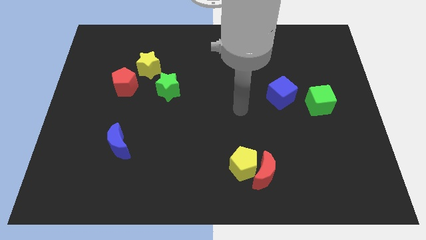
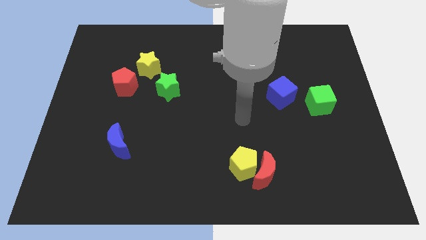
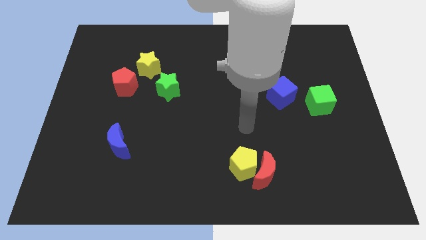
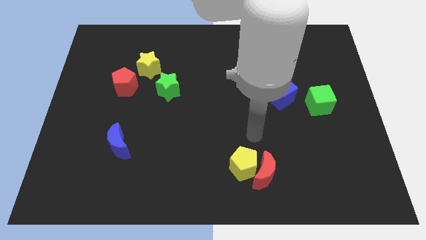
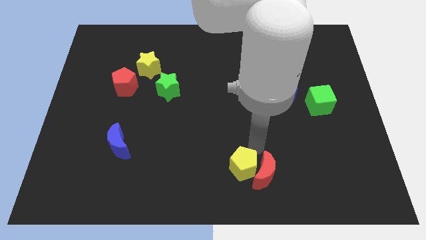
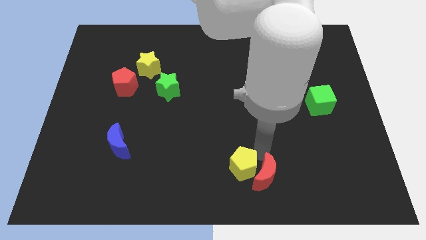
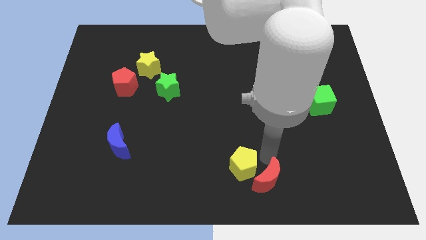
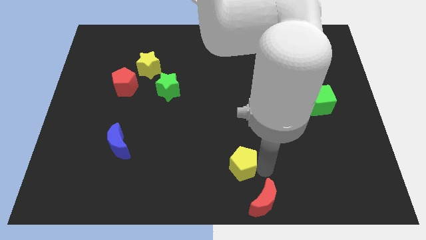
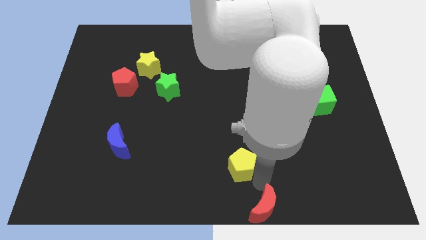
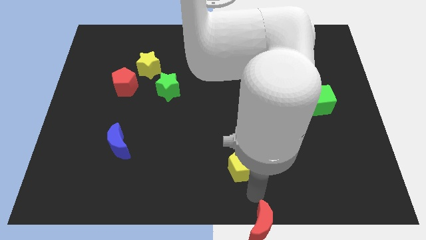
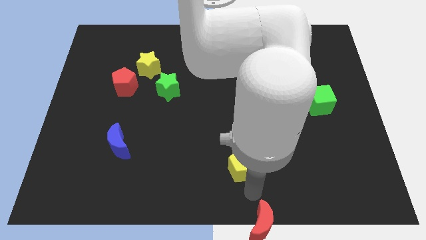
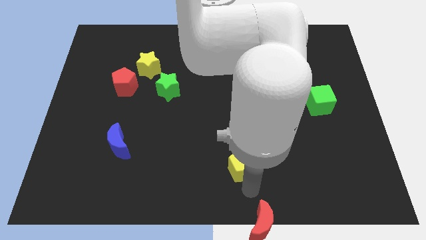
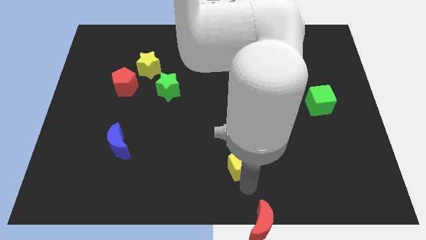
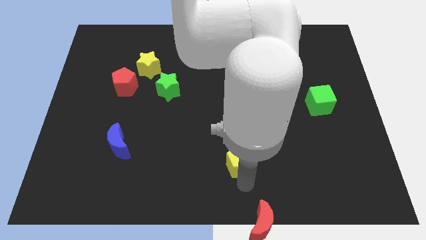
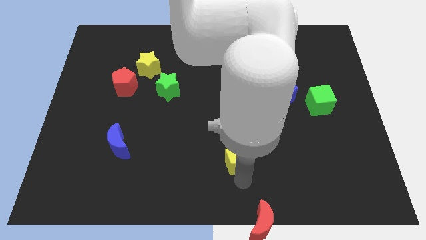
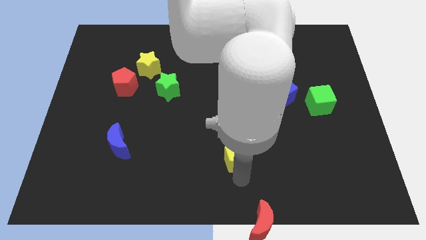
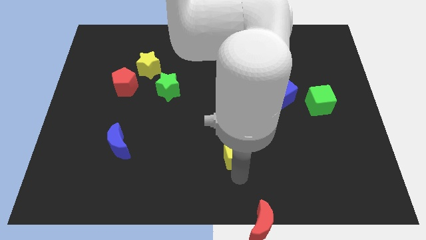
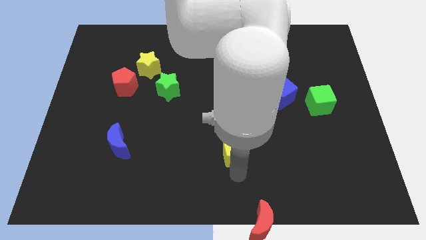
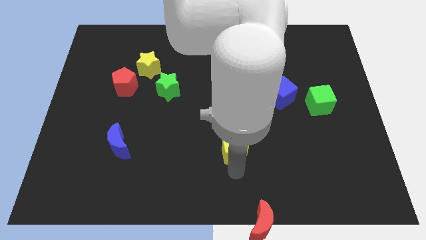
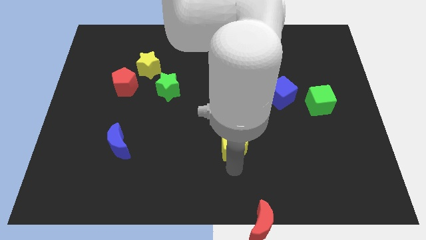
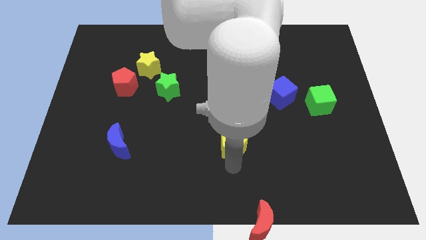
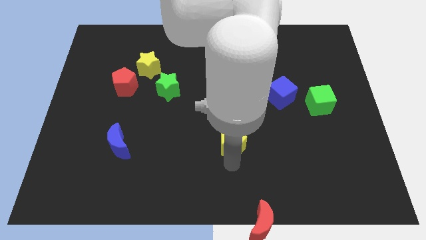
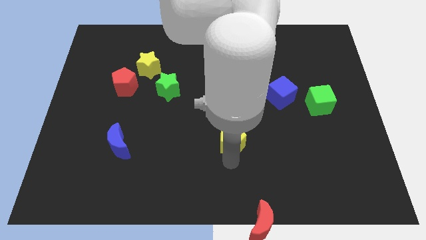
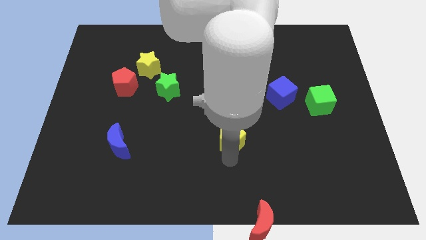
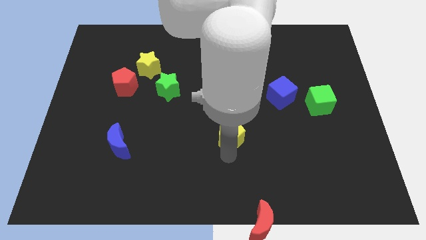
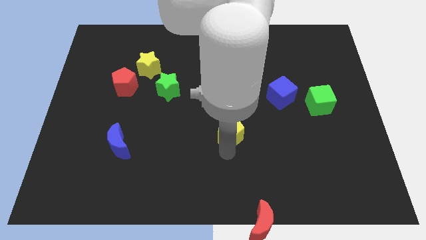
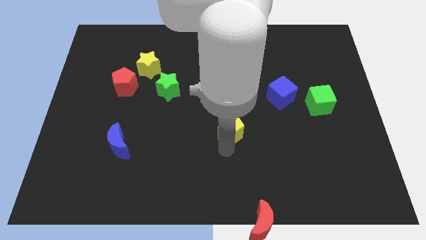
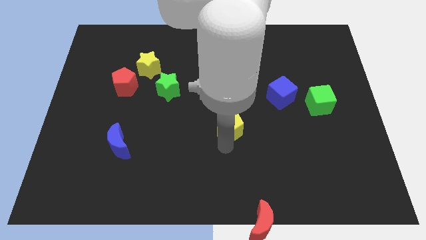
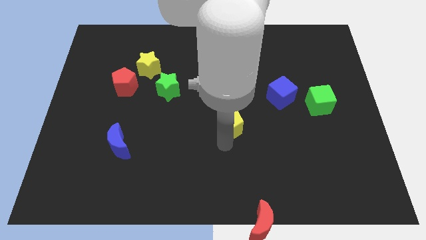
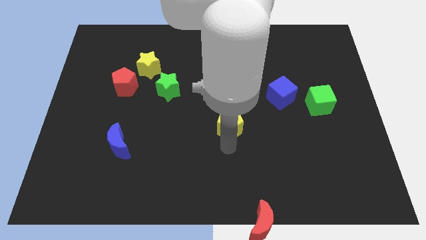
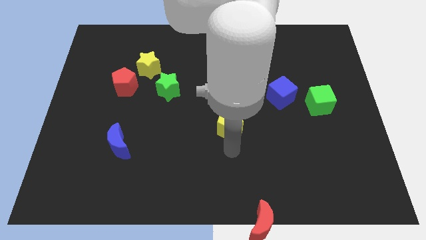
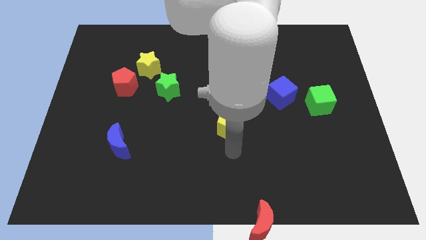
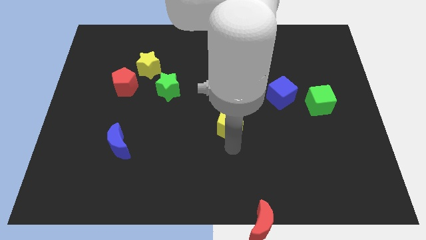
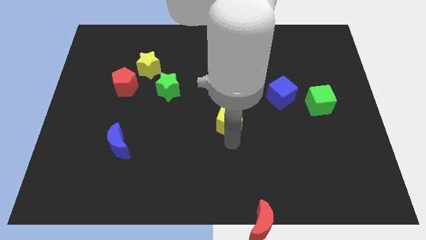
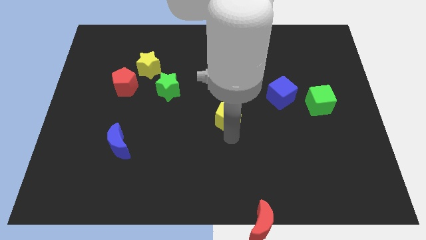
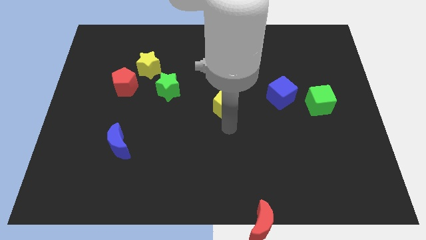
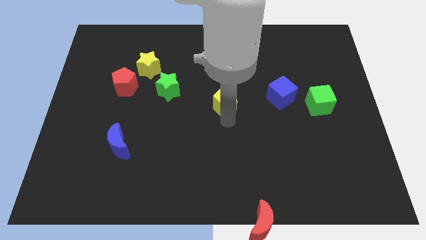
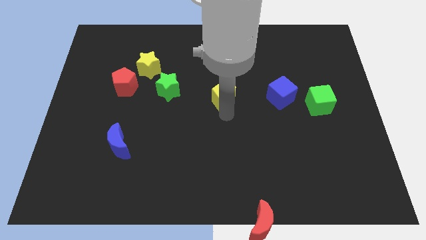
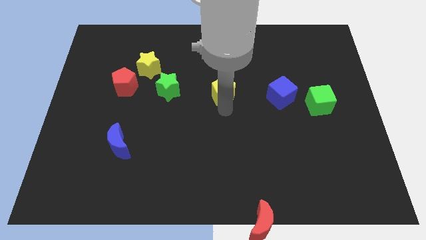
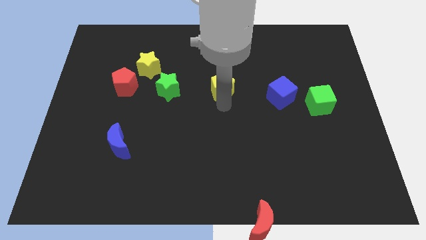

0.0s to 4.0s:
slide the yellow pentagon upwards

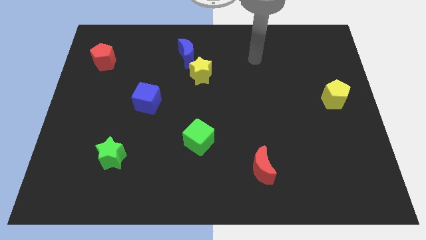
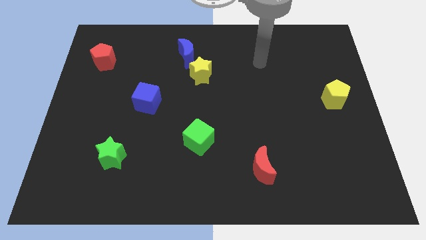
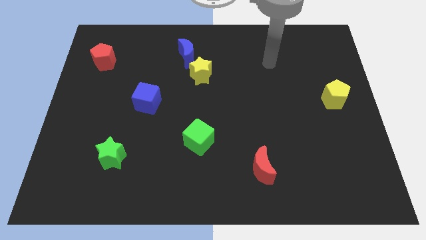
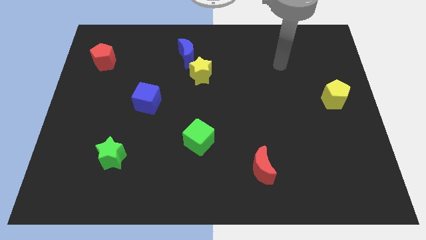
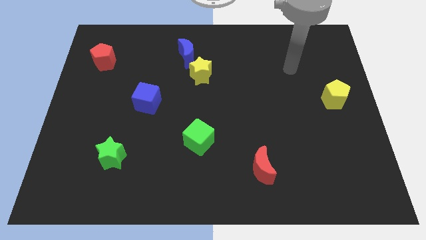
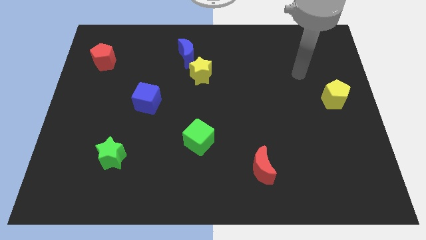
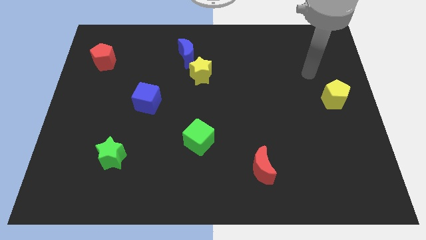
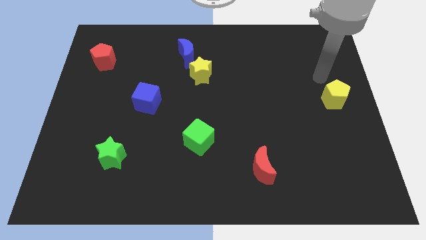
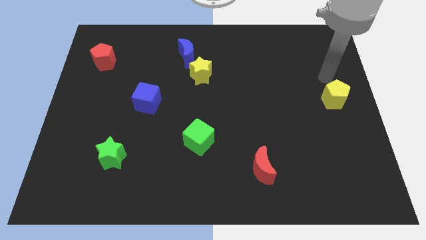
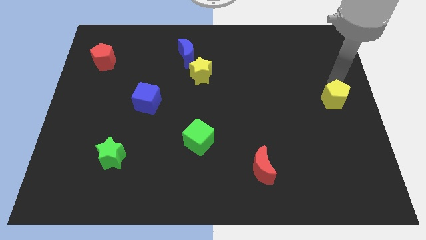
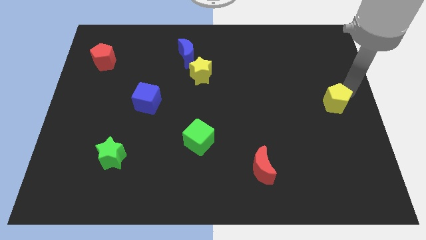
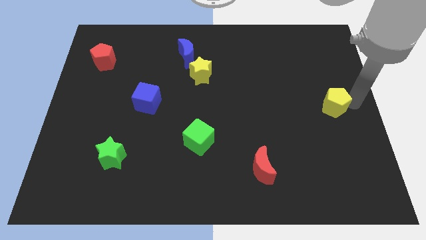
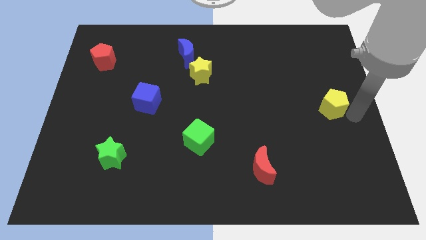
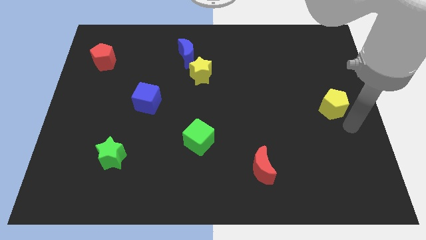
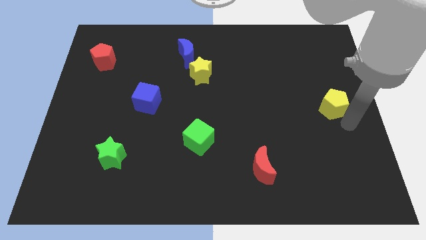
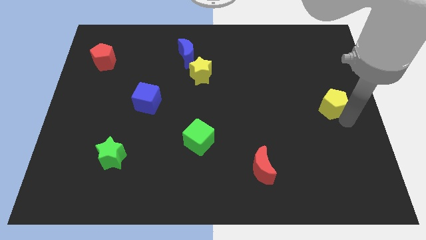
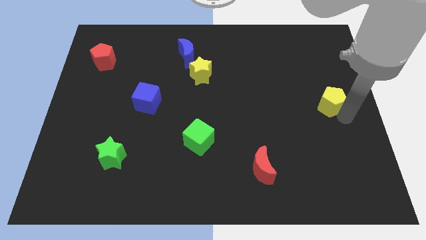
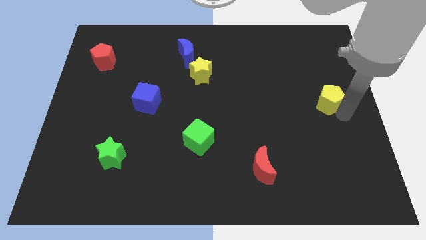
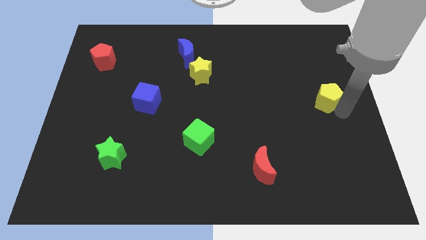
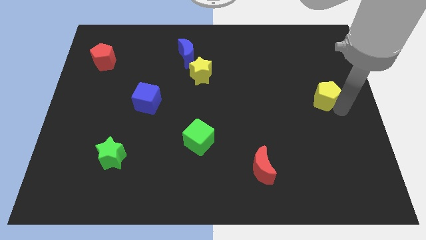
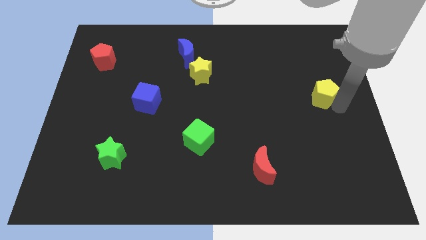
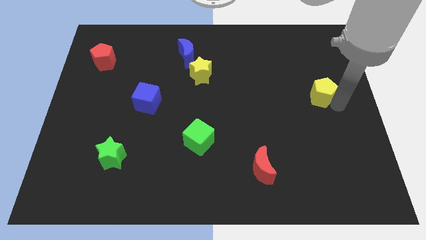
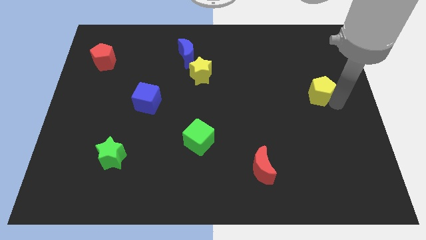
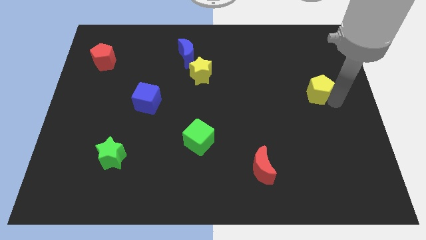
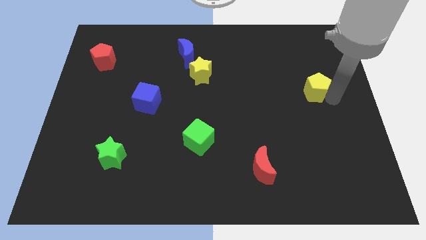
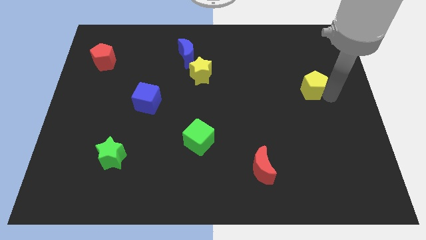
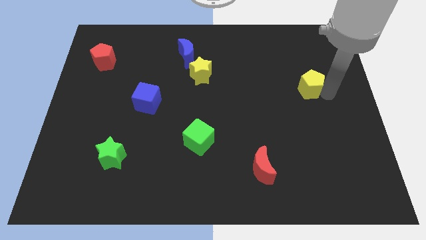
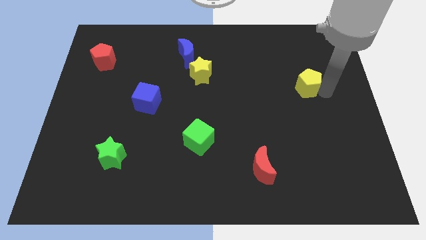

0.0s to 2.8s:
slide the yellow pentagon up and to the left a little bit

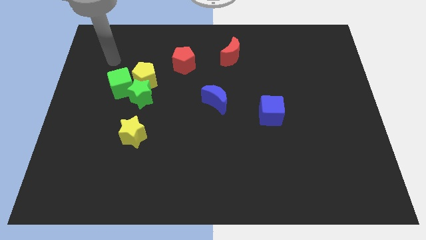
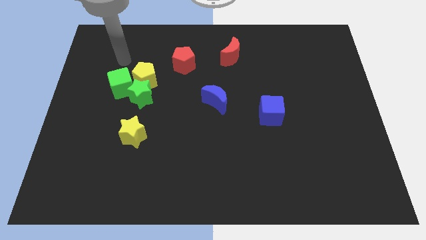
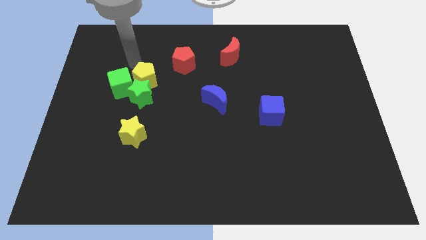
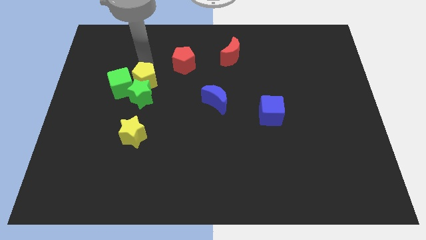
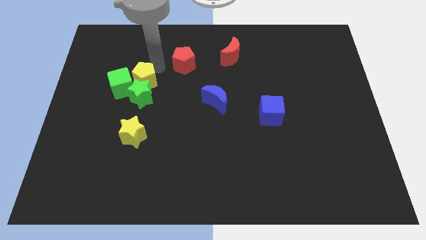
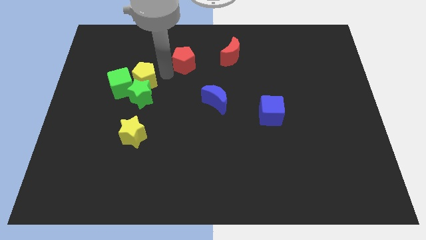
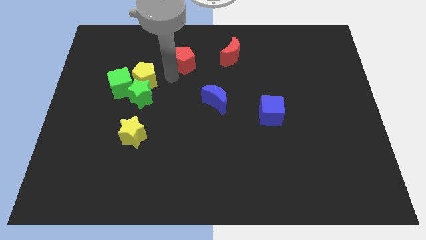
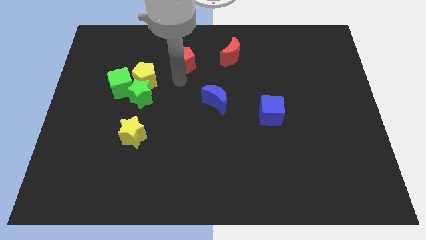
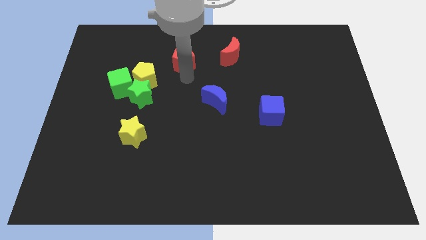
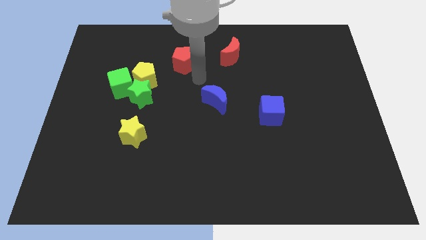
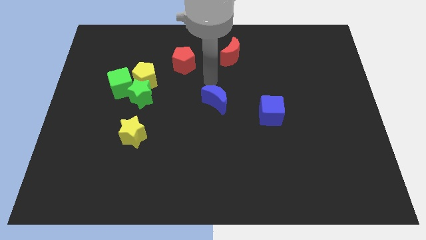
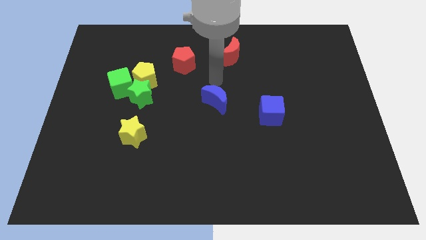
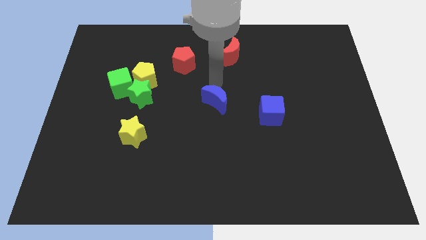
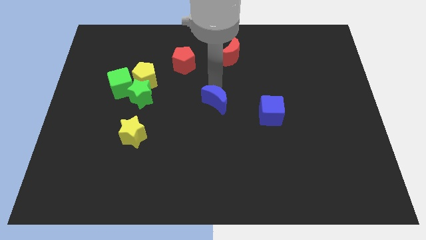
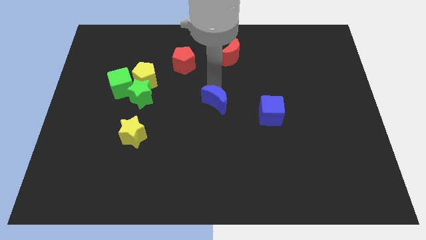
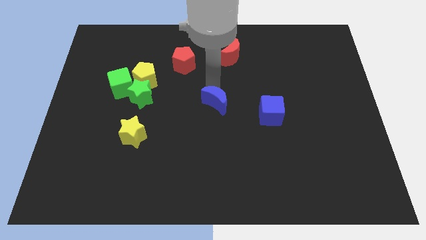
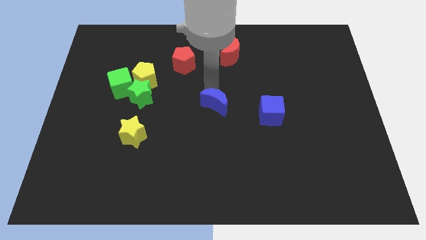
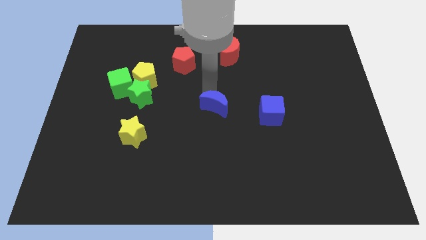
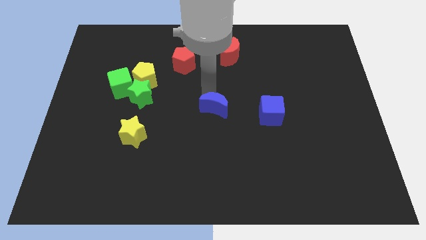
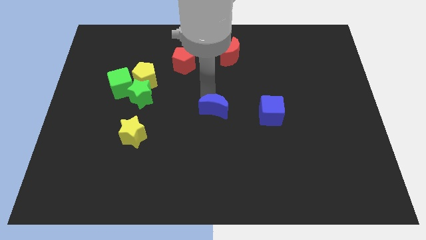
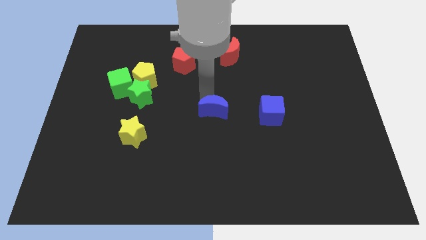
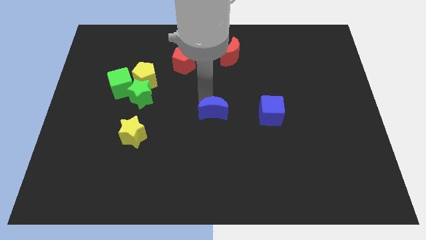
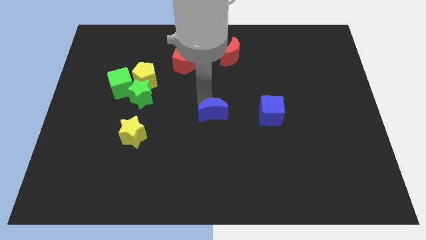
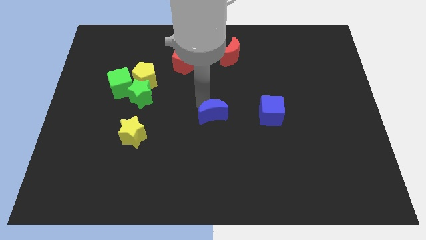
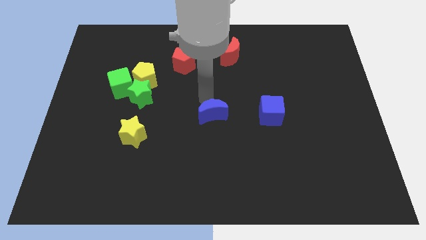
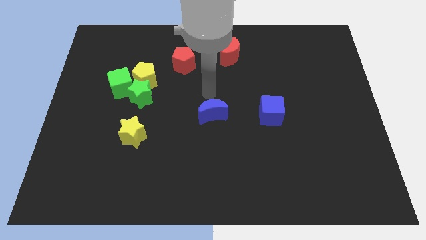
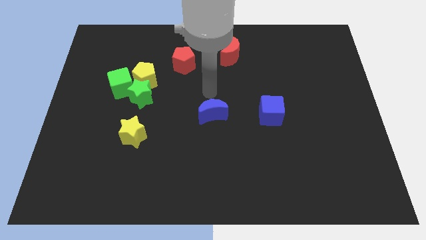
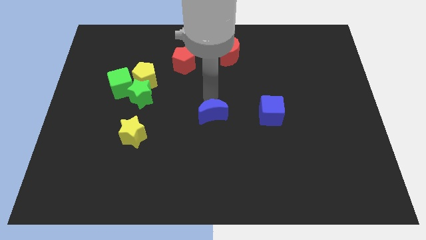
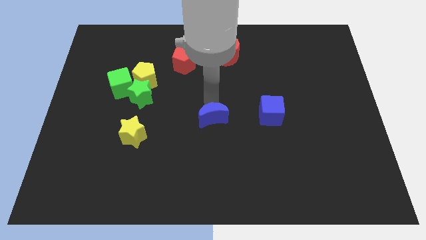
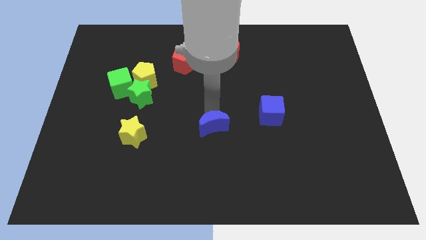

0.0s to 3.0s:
slightly push the blue moon down
